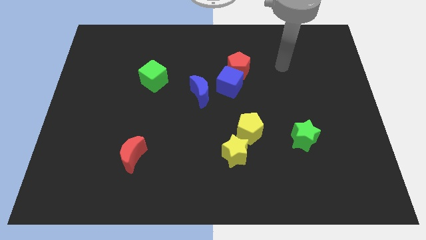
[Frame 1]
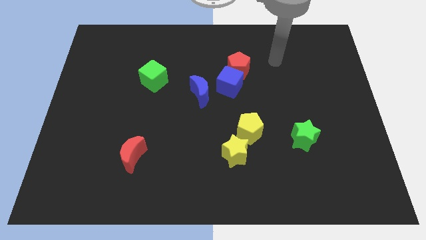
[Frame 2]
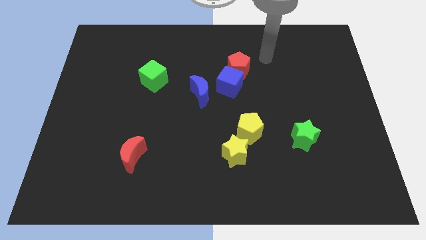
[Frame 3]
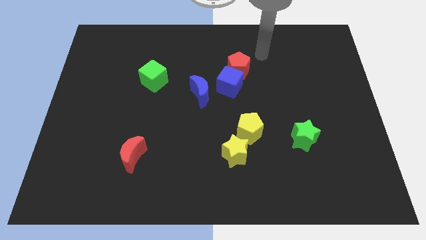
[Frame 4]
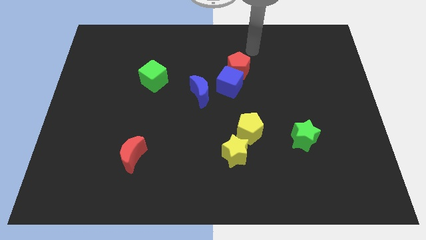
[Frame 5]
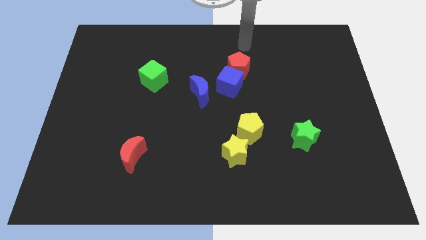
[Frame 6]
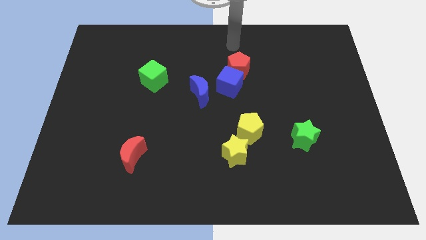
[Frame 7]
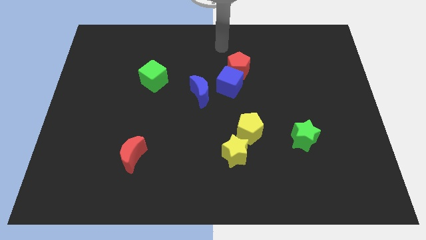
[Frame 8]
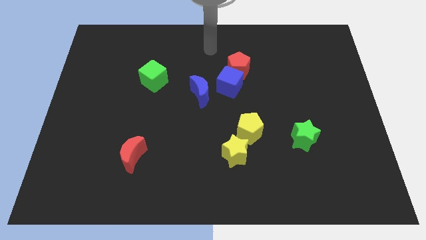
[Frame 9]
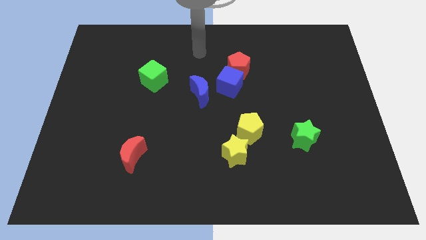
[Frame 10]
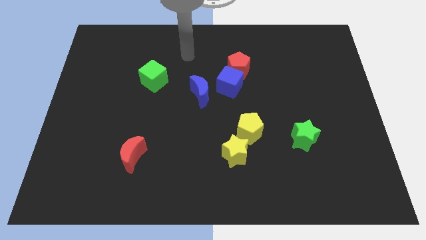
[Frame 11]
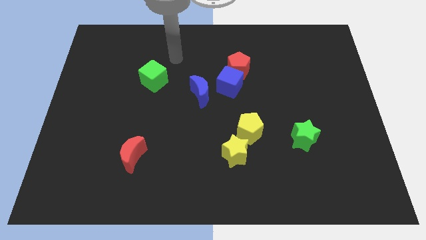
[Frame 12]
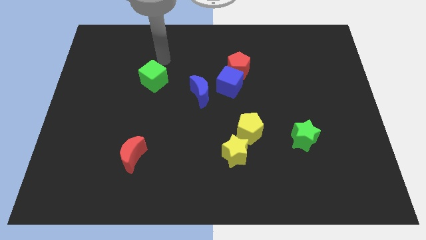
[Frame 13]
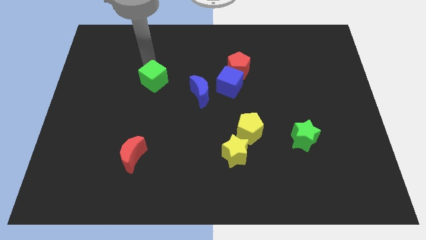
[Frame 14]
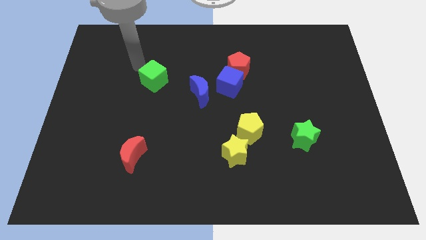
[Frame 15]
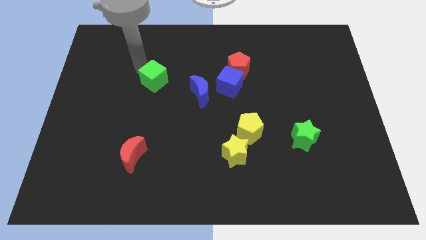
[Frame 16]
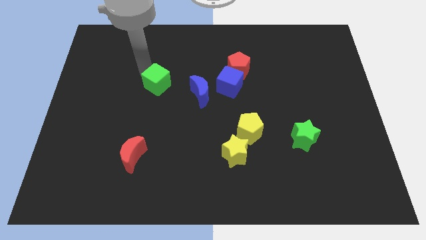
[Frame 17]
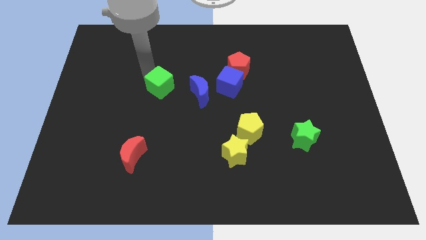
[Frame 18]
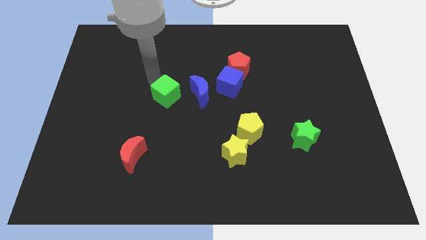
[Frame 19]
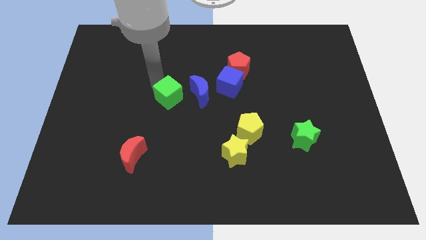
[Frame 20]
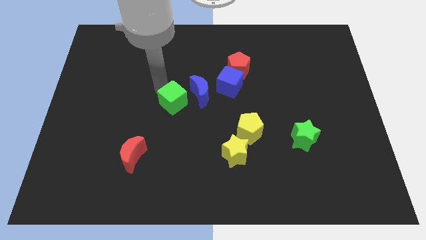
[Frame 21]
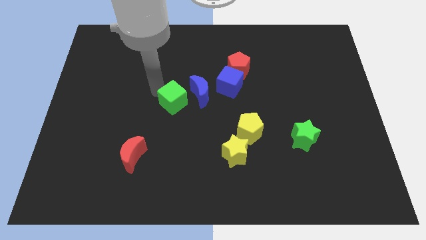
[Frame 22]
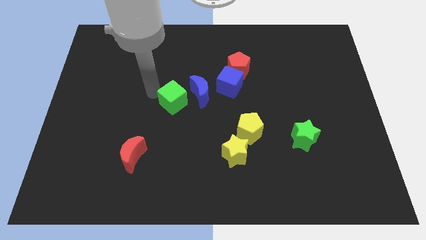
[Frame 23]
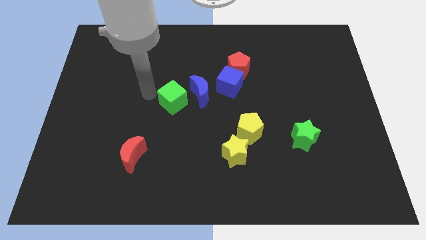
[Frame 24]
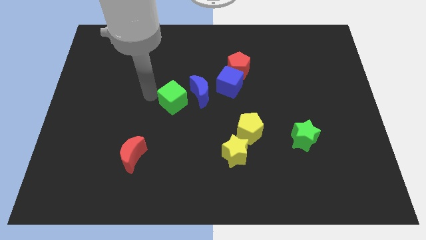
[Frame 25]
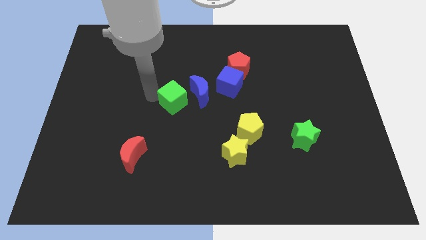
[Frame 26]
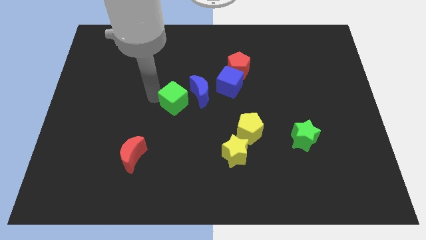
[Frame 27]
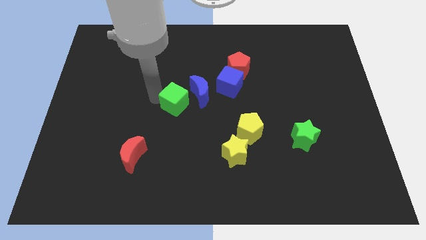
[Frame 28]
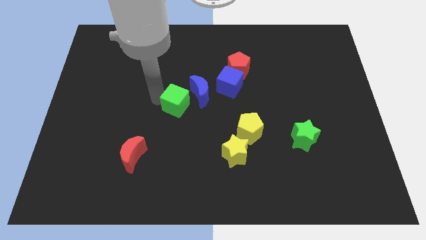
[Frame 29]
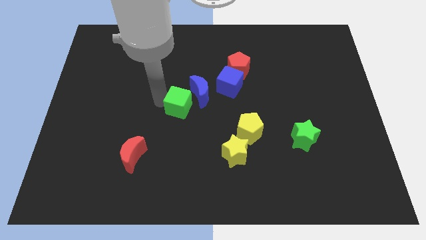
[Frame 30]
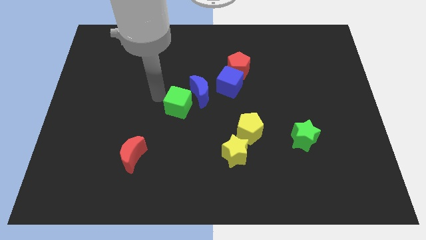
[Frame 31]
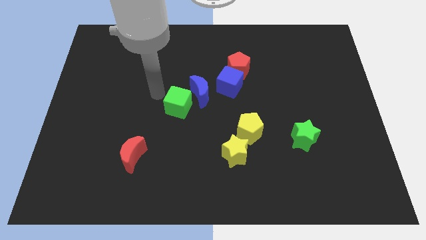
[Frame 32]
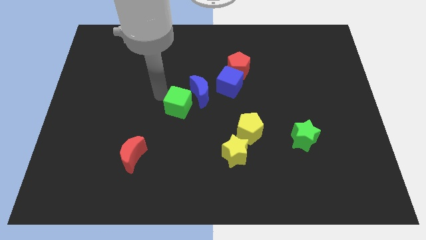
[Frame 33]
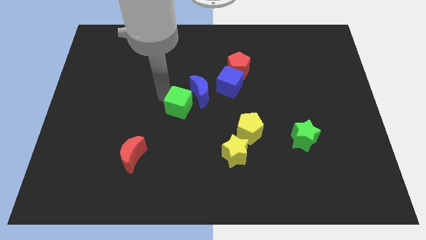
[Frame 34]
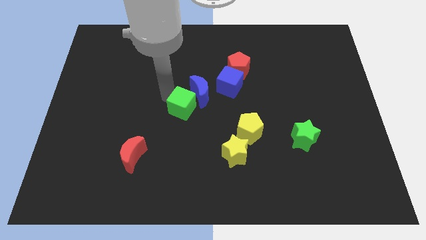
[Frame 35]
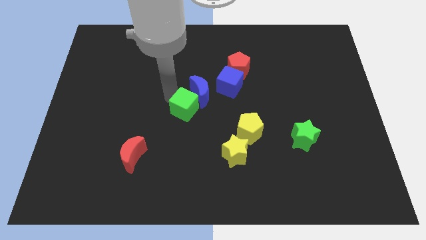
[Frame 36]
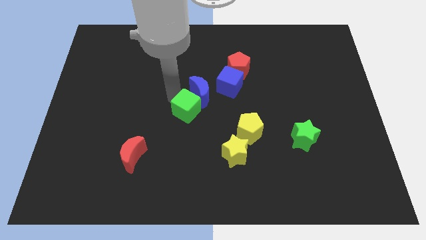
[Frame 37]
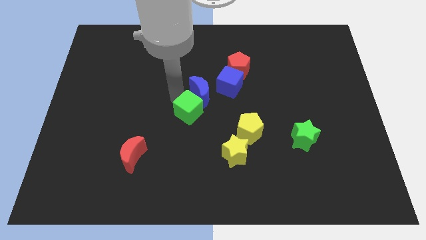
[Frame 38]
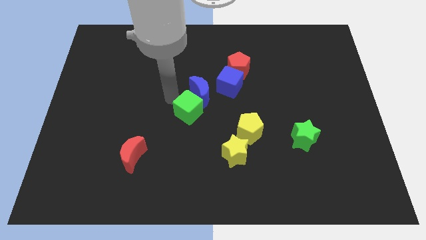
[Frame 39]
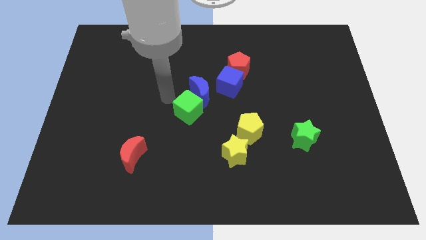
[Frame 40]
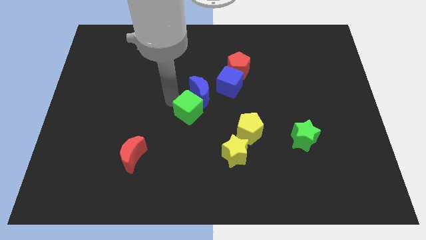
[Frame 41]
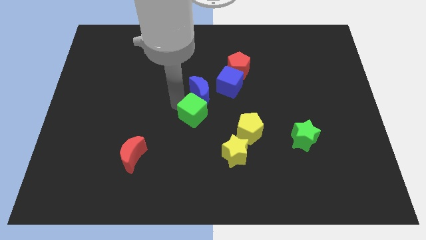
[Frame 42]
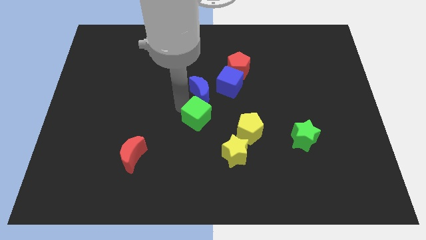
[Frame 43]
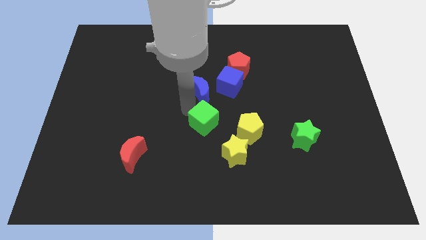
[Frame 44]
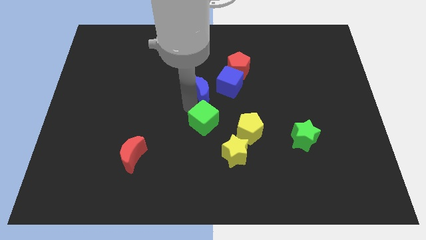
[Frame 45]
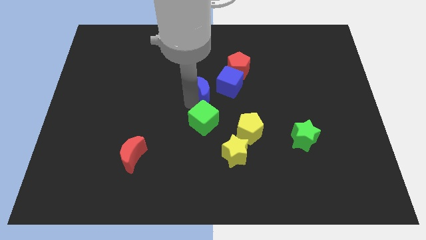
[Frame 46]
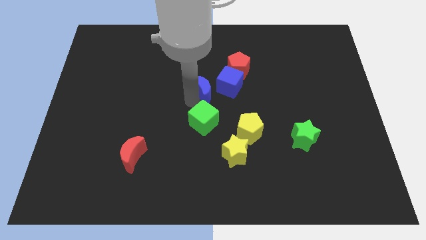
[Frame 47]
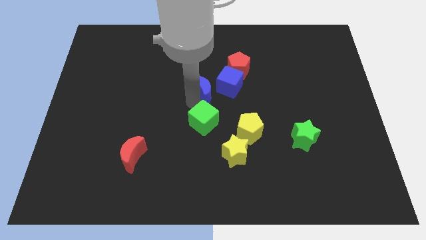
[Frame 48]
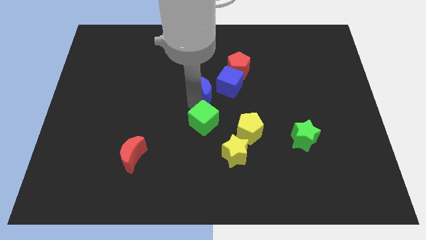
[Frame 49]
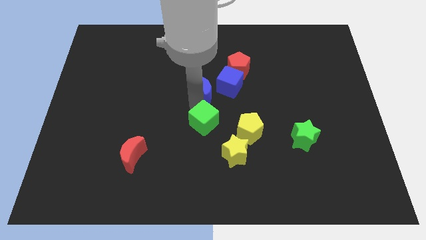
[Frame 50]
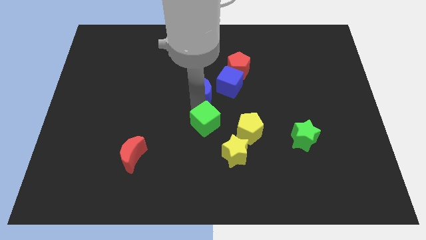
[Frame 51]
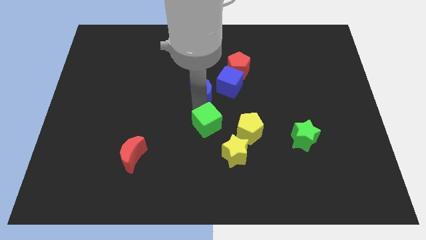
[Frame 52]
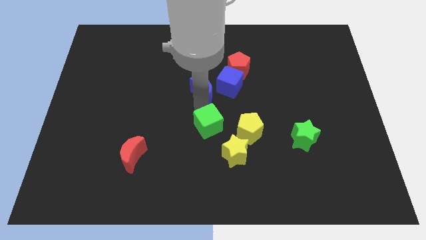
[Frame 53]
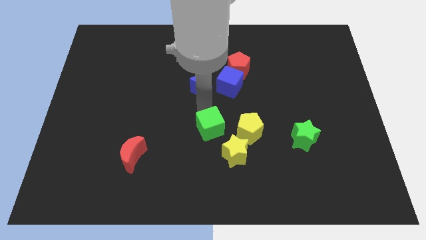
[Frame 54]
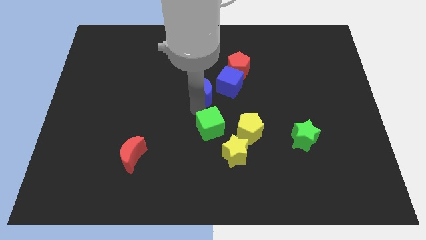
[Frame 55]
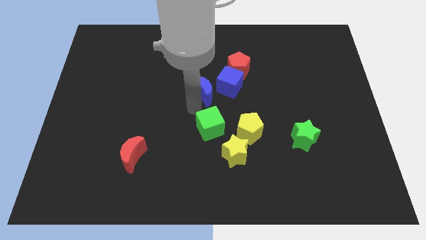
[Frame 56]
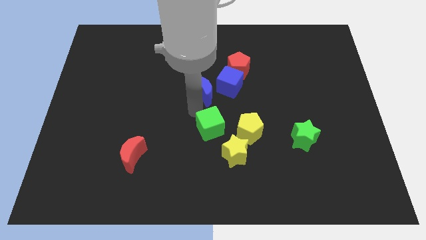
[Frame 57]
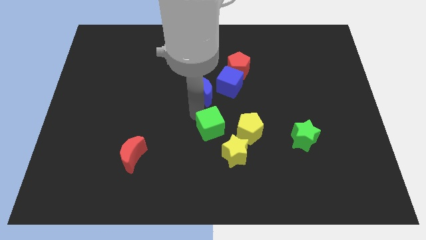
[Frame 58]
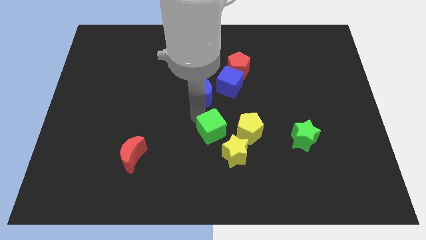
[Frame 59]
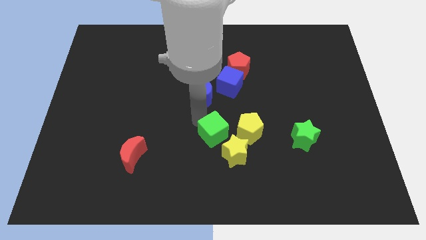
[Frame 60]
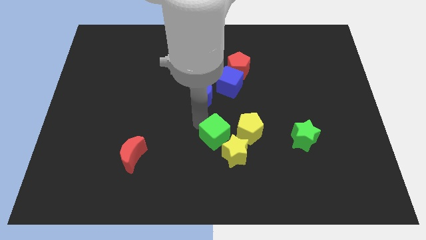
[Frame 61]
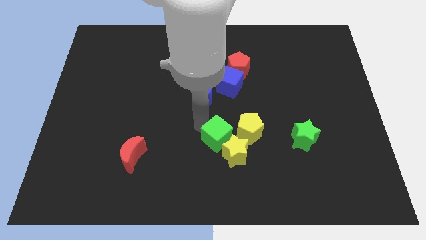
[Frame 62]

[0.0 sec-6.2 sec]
move the green cube to the yellow star

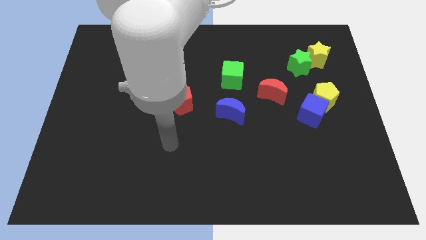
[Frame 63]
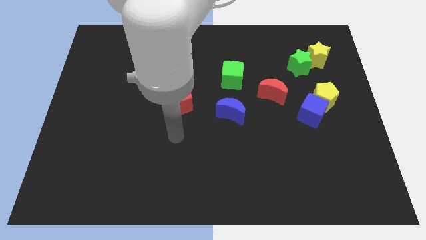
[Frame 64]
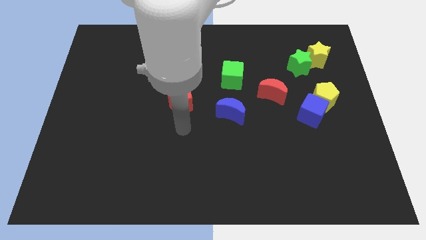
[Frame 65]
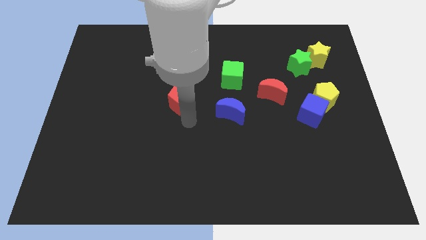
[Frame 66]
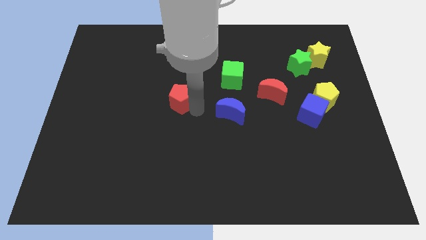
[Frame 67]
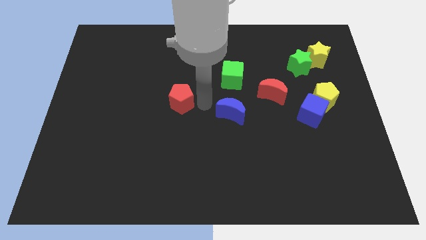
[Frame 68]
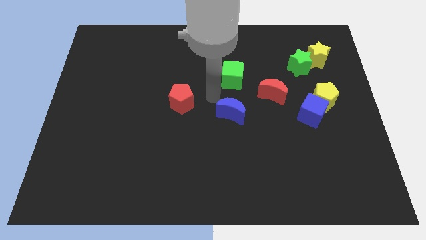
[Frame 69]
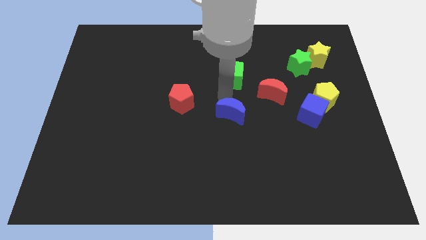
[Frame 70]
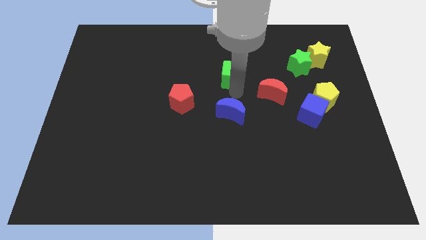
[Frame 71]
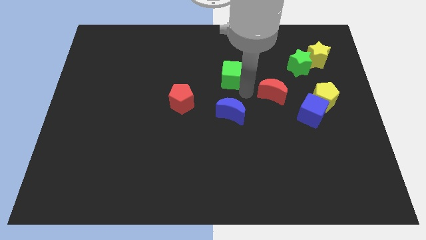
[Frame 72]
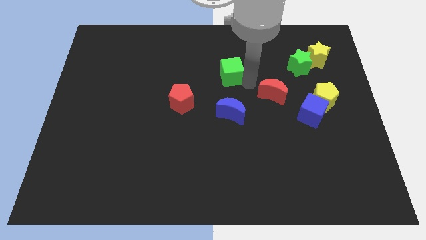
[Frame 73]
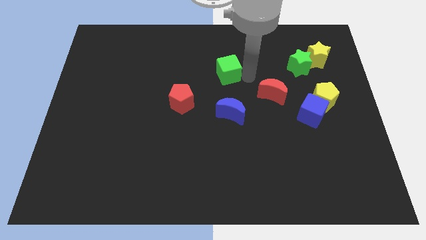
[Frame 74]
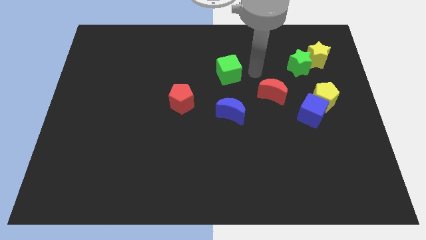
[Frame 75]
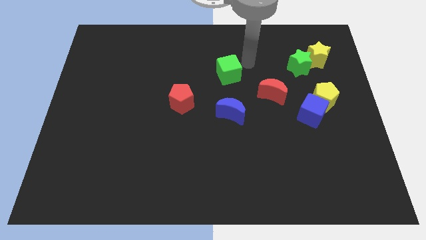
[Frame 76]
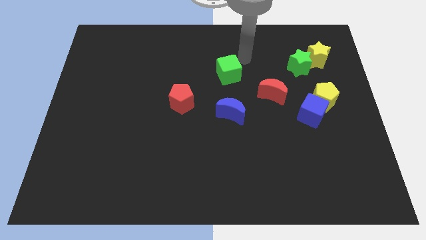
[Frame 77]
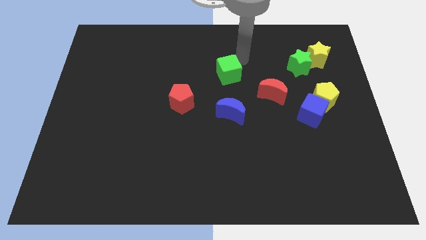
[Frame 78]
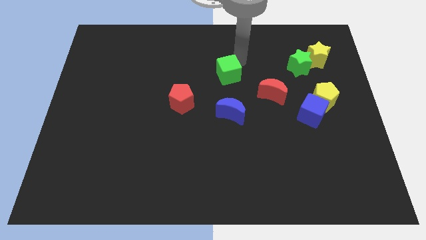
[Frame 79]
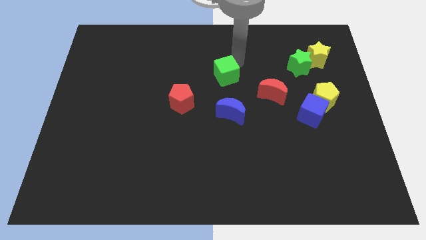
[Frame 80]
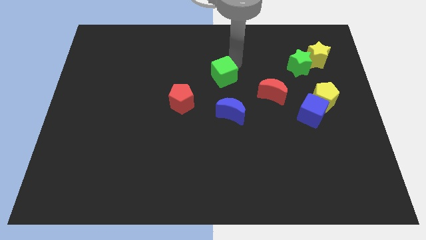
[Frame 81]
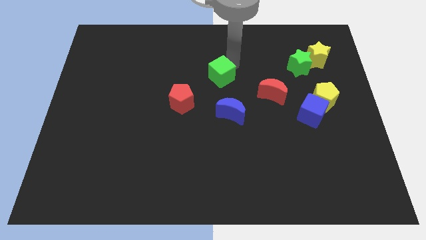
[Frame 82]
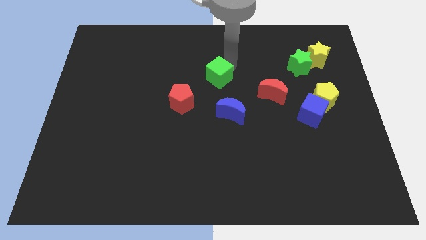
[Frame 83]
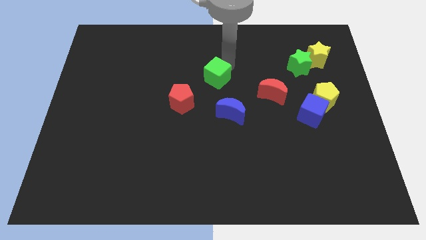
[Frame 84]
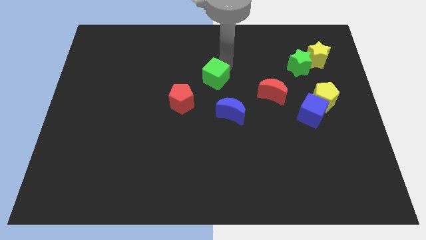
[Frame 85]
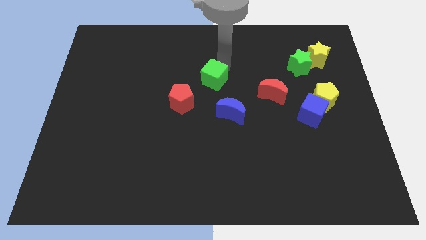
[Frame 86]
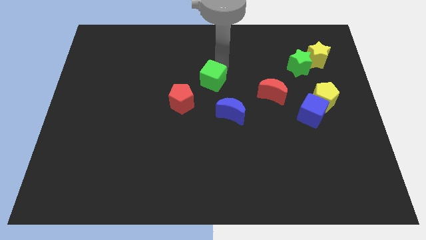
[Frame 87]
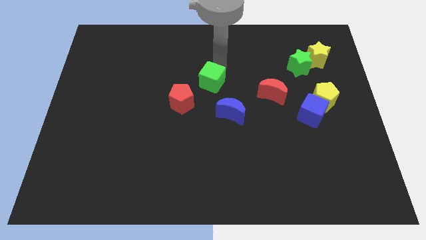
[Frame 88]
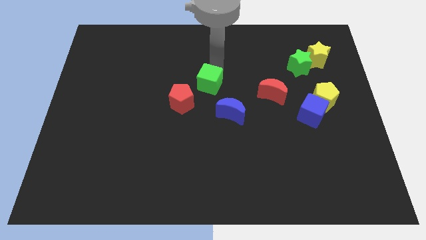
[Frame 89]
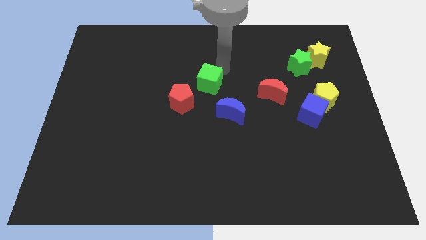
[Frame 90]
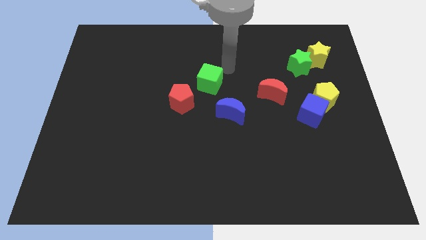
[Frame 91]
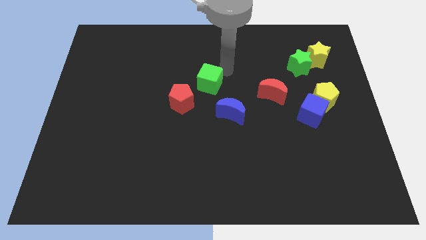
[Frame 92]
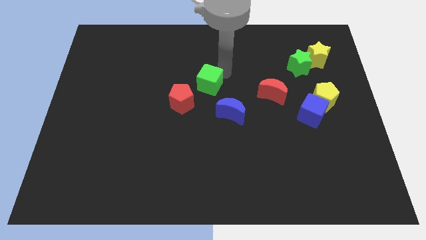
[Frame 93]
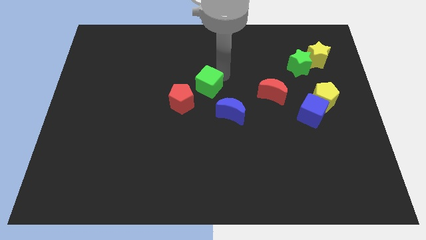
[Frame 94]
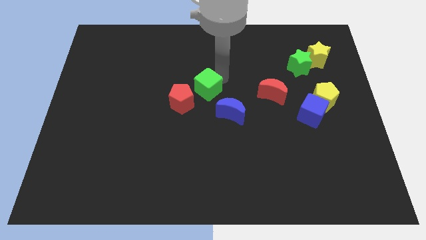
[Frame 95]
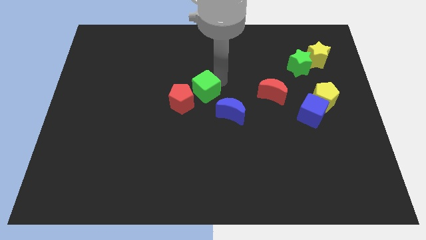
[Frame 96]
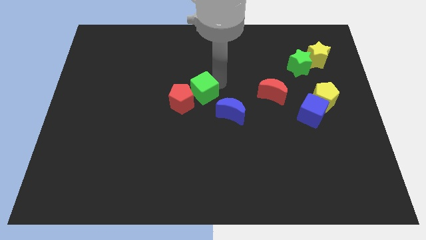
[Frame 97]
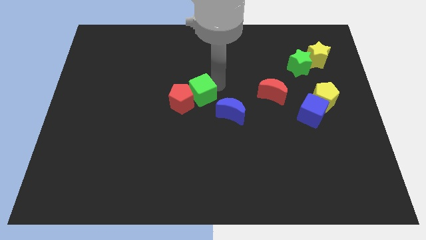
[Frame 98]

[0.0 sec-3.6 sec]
push the green cube next to the red pentagon
